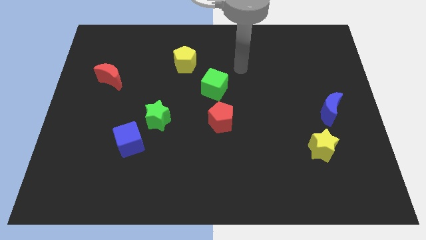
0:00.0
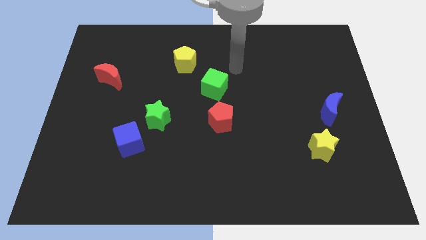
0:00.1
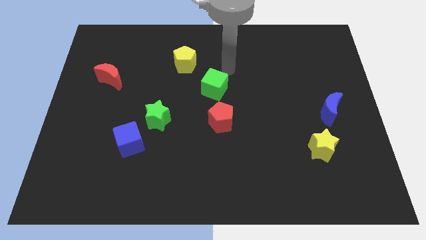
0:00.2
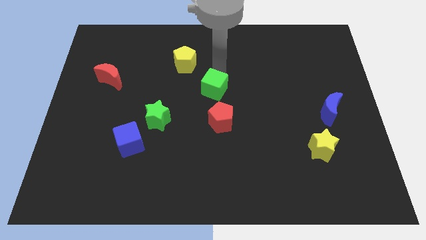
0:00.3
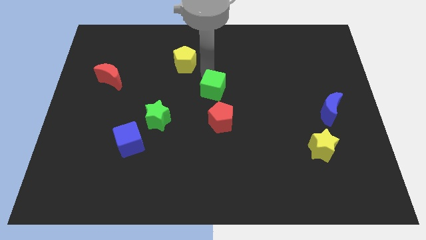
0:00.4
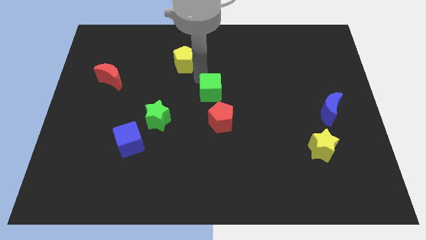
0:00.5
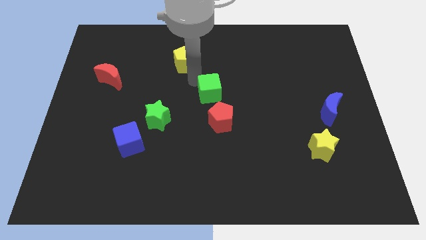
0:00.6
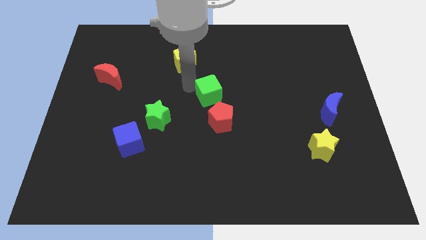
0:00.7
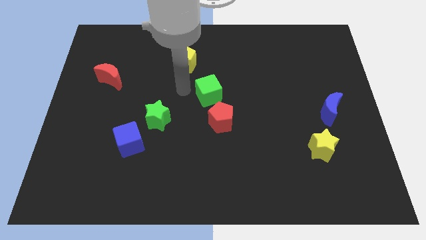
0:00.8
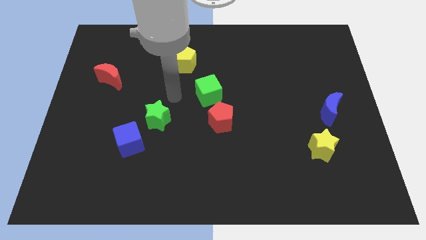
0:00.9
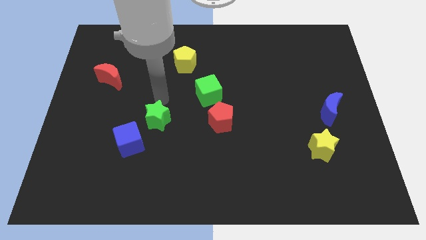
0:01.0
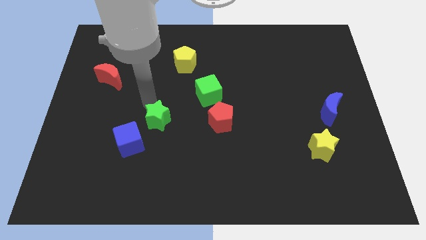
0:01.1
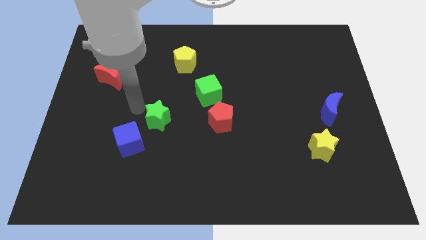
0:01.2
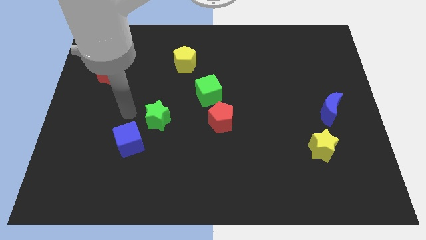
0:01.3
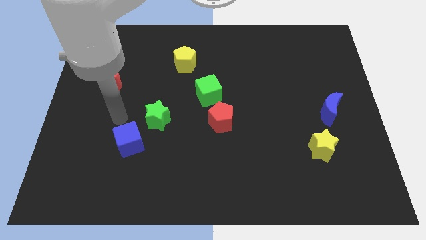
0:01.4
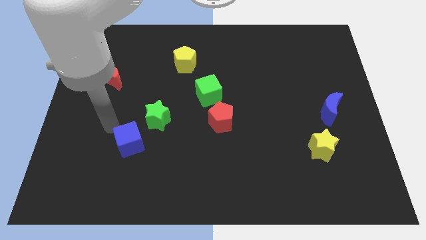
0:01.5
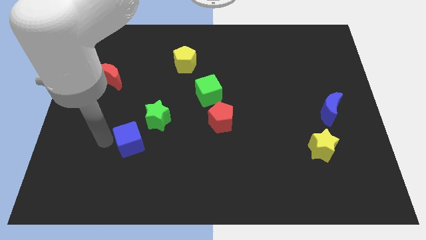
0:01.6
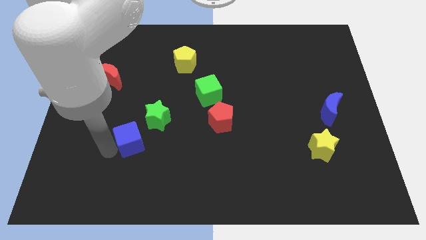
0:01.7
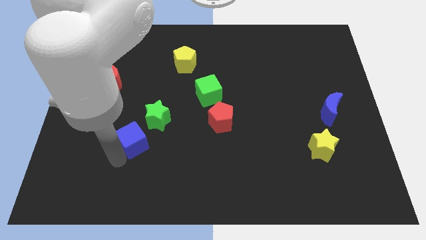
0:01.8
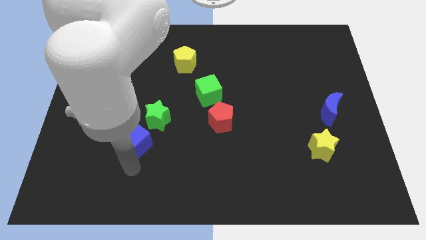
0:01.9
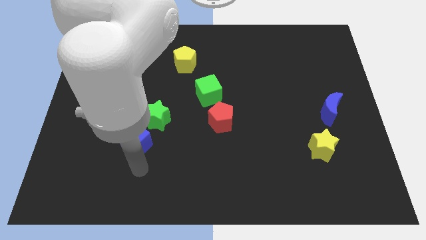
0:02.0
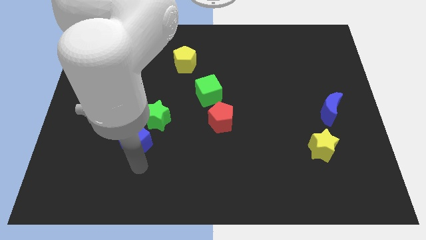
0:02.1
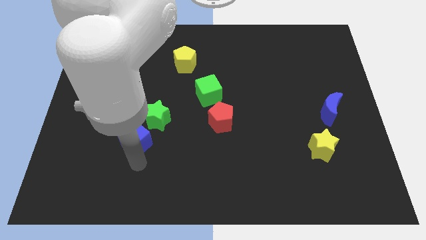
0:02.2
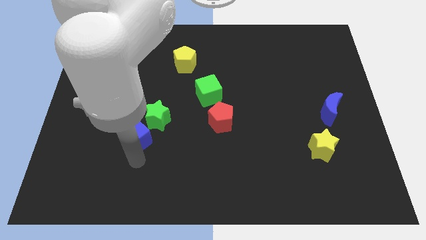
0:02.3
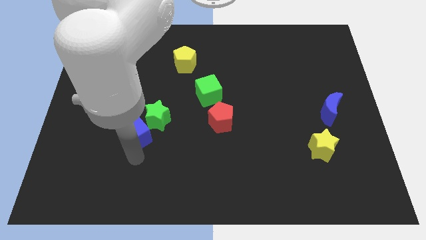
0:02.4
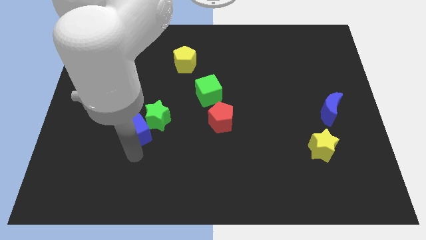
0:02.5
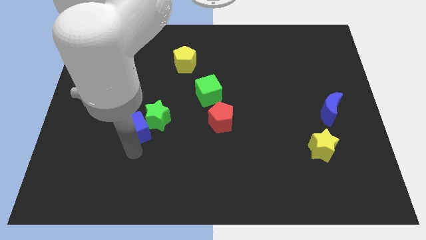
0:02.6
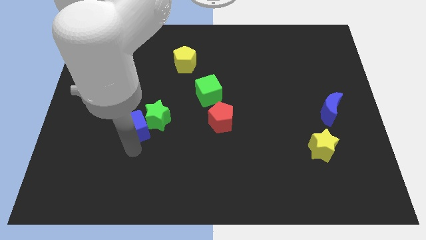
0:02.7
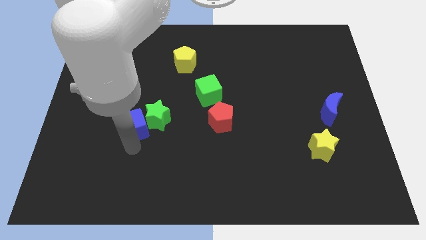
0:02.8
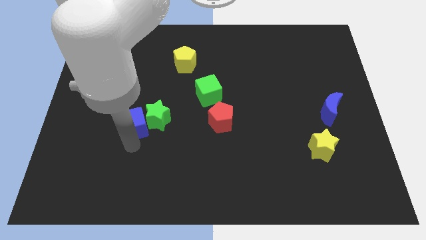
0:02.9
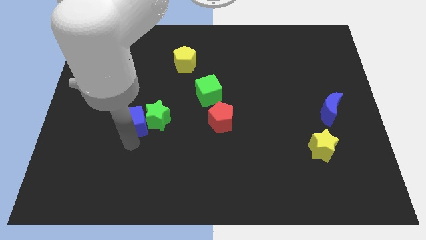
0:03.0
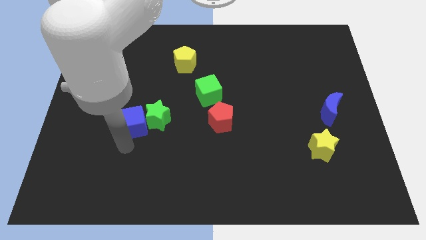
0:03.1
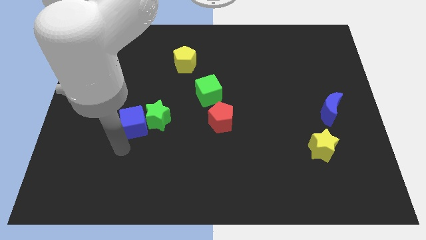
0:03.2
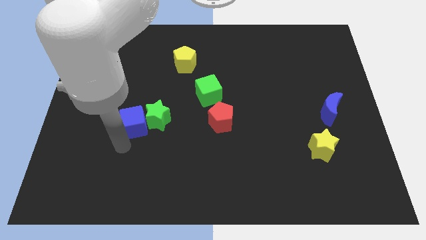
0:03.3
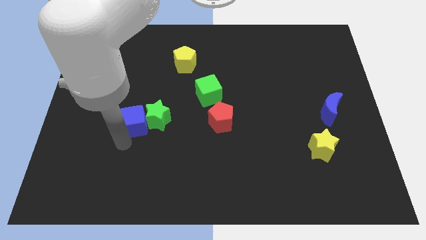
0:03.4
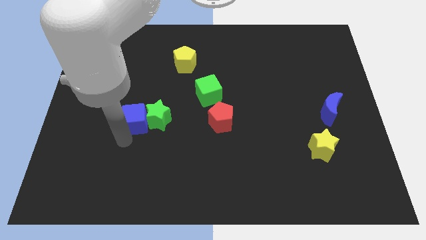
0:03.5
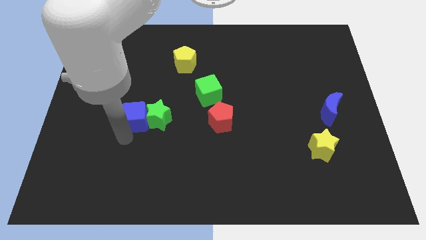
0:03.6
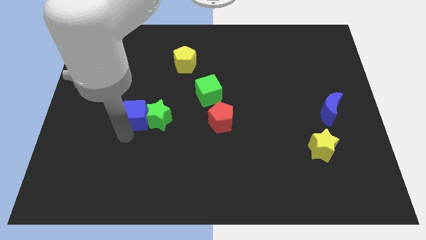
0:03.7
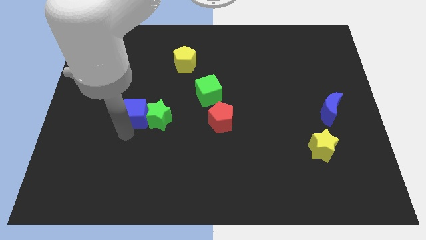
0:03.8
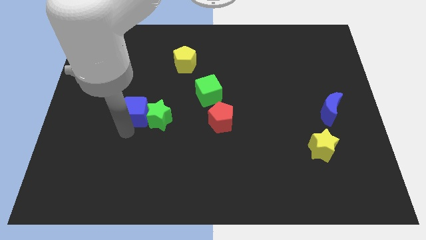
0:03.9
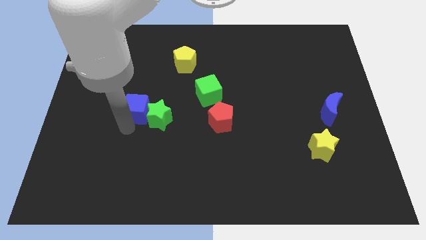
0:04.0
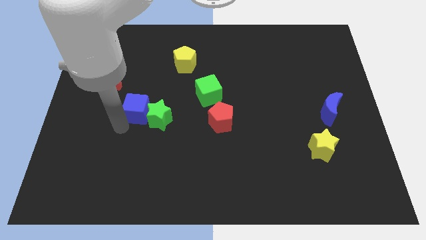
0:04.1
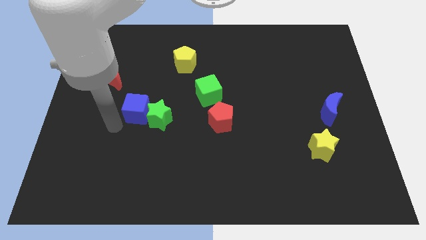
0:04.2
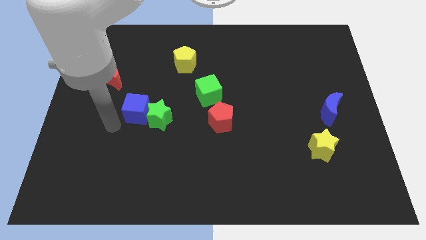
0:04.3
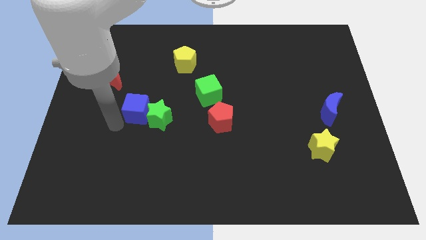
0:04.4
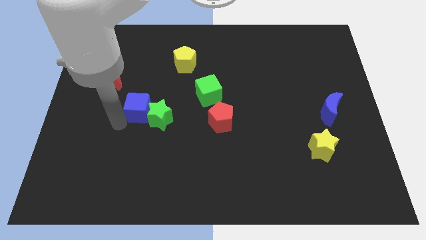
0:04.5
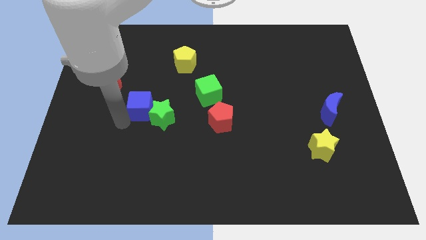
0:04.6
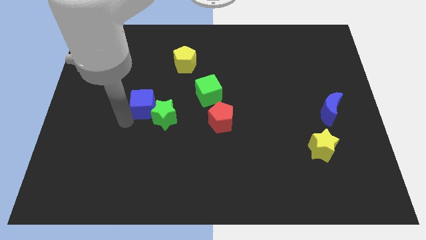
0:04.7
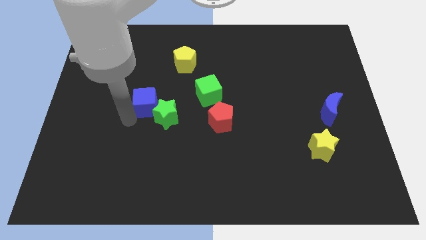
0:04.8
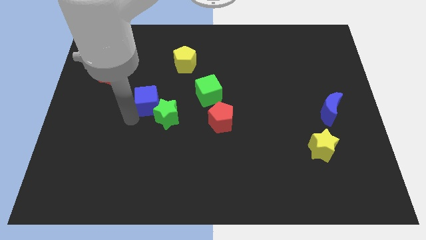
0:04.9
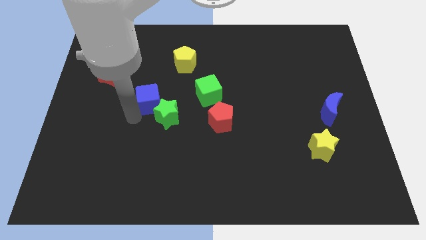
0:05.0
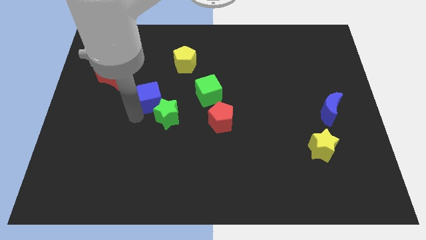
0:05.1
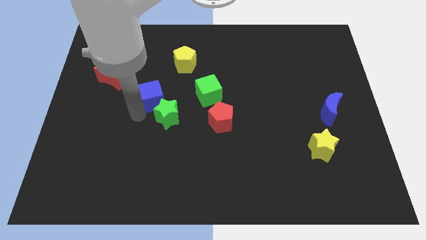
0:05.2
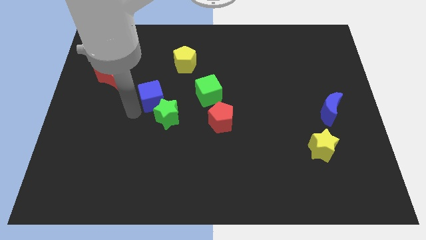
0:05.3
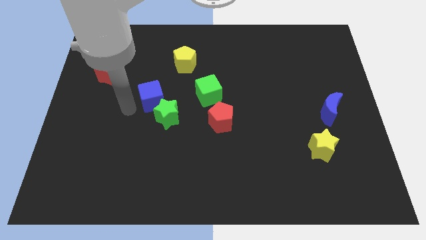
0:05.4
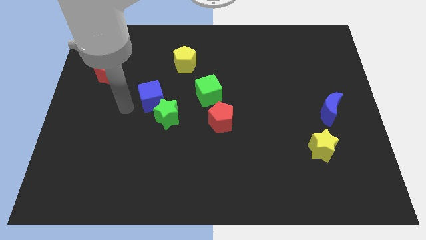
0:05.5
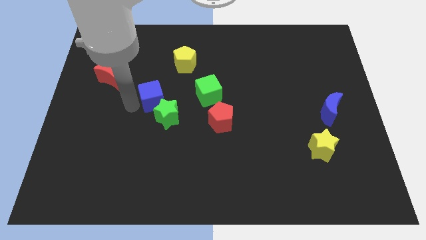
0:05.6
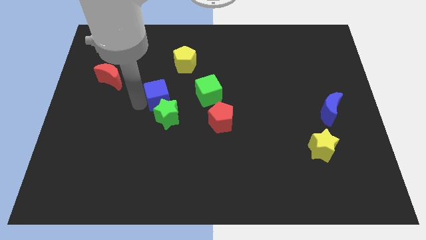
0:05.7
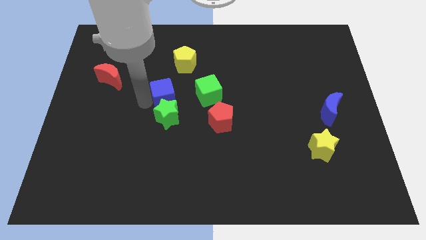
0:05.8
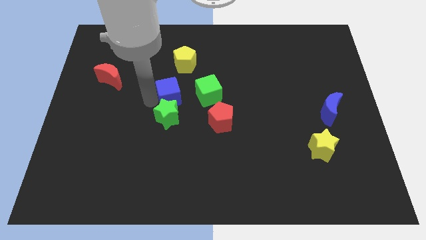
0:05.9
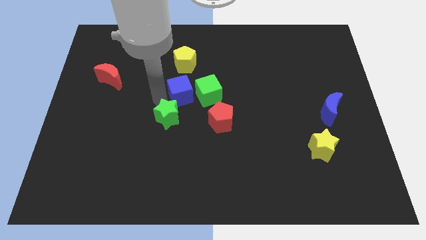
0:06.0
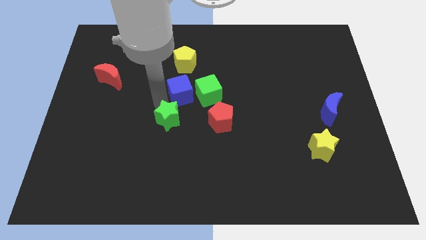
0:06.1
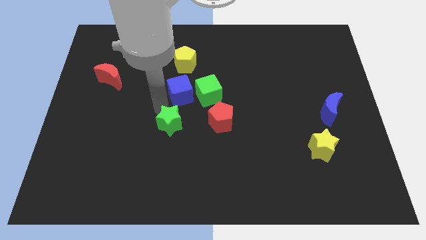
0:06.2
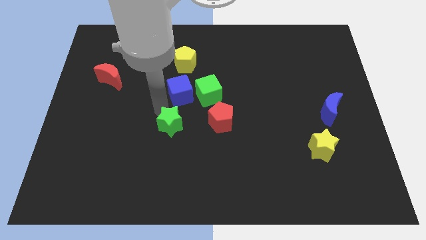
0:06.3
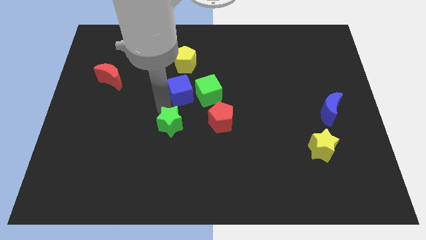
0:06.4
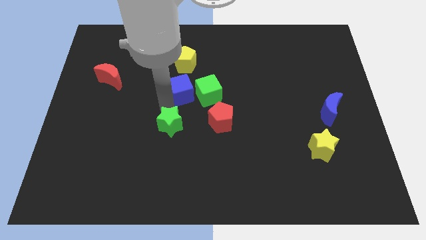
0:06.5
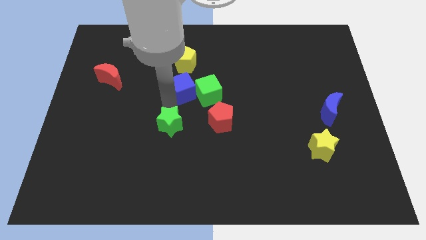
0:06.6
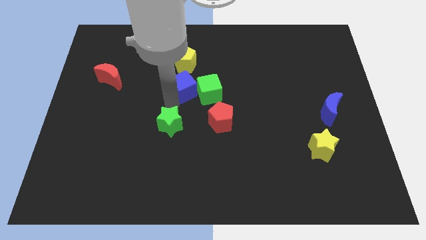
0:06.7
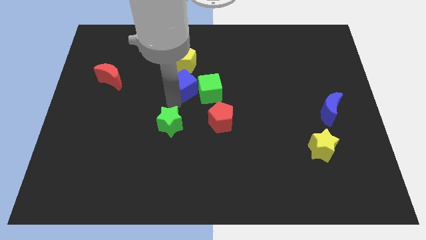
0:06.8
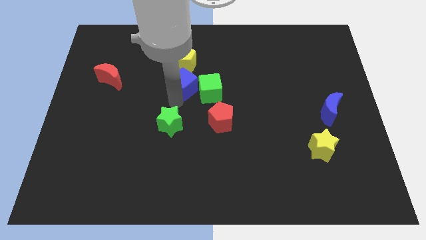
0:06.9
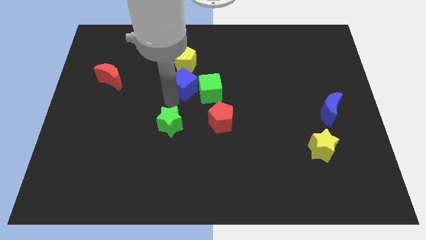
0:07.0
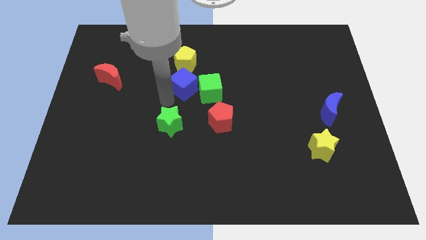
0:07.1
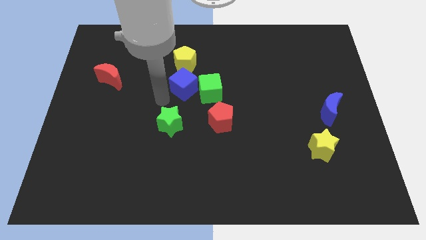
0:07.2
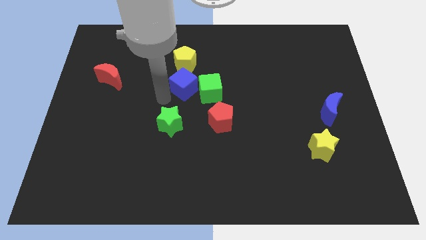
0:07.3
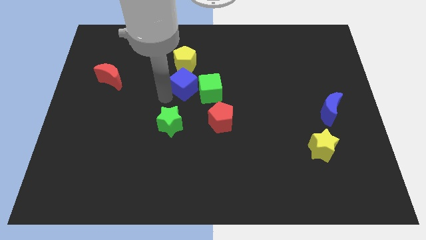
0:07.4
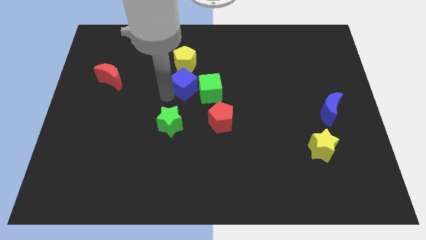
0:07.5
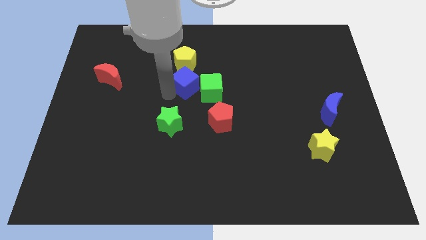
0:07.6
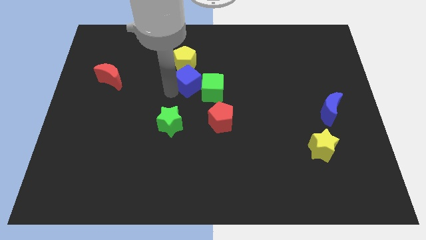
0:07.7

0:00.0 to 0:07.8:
move the blue cube upwards and then right

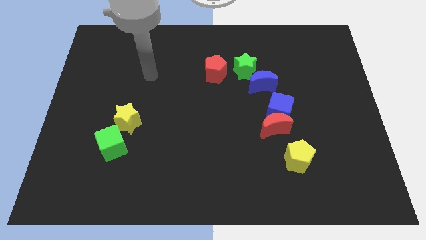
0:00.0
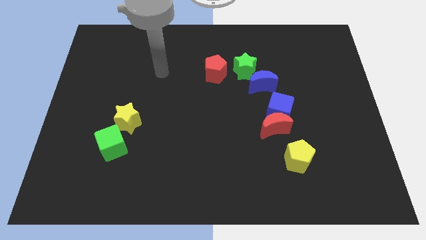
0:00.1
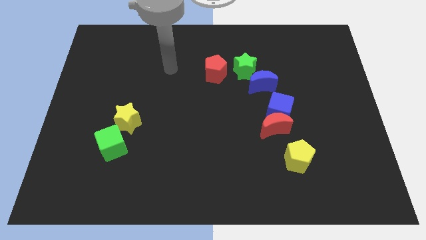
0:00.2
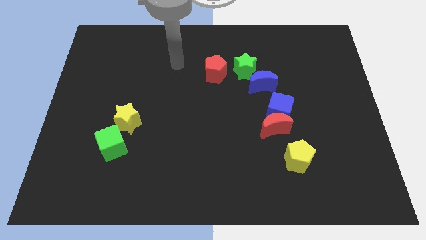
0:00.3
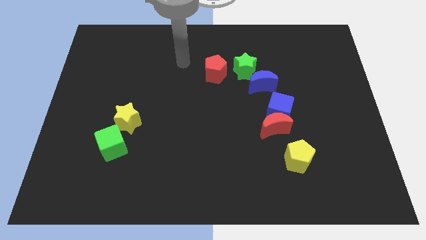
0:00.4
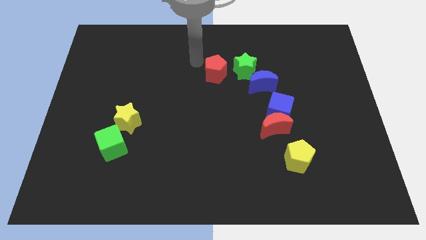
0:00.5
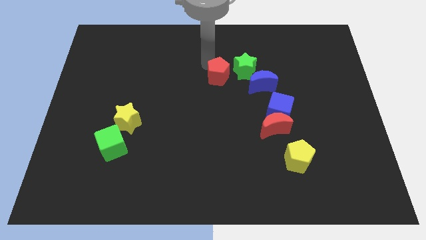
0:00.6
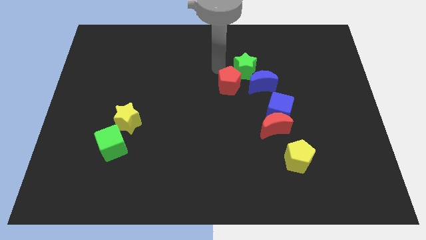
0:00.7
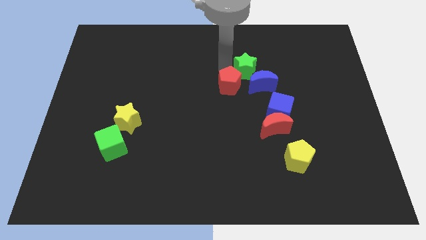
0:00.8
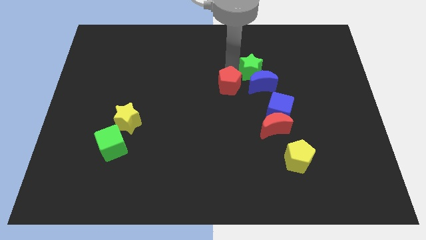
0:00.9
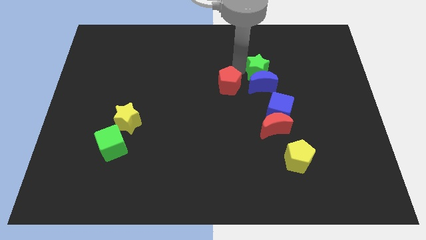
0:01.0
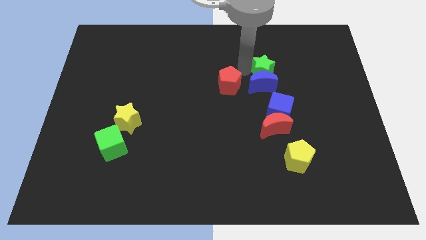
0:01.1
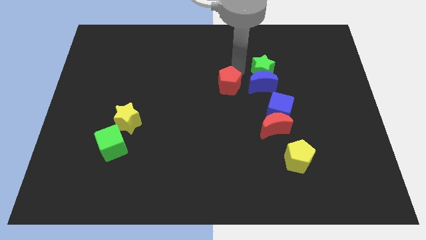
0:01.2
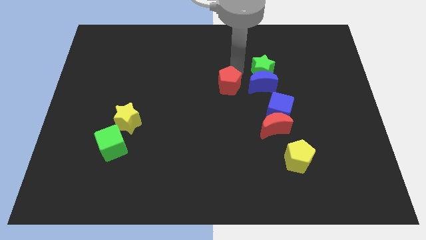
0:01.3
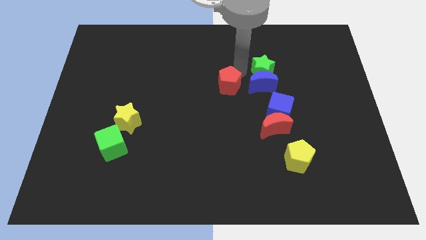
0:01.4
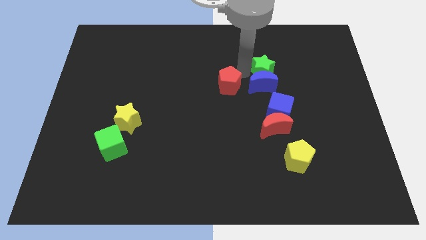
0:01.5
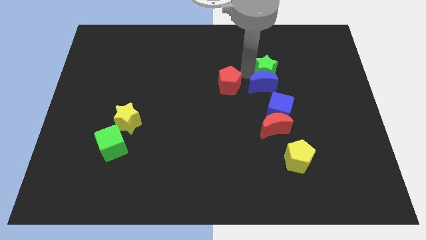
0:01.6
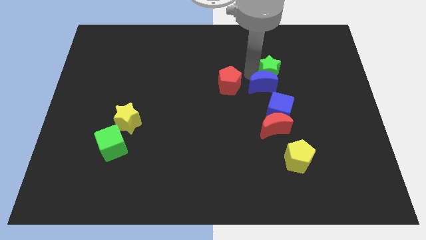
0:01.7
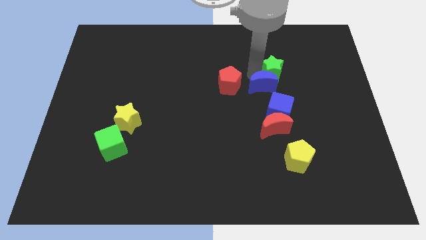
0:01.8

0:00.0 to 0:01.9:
slightly push the green star right
